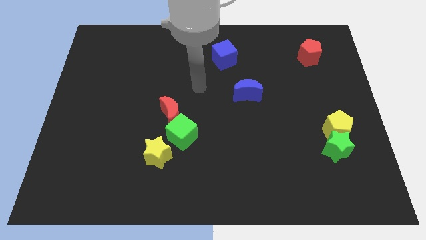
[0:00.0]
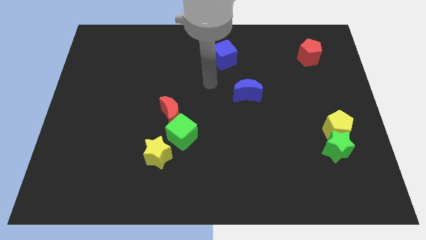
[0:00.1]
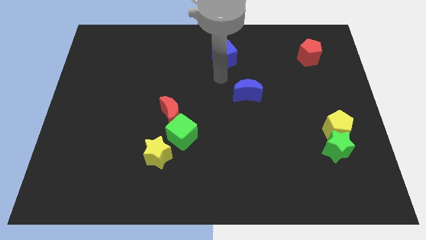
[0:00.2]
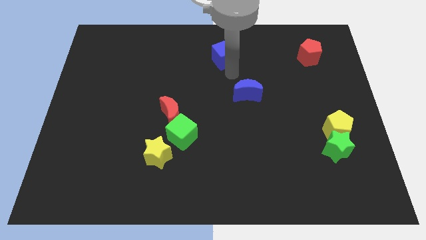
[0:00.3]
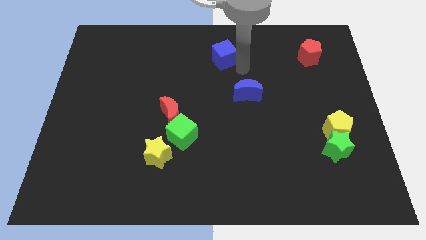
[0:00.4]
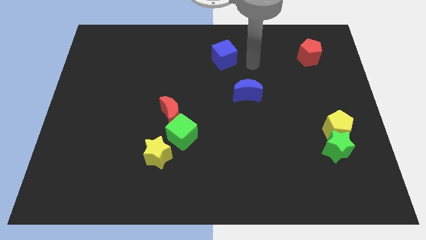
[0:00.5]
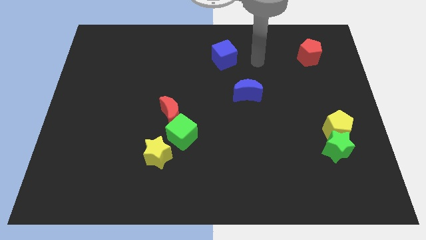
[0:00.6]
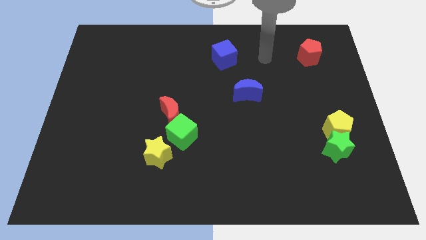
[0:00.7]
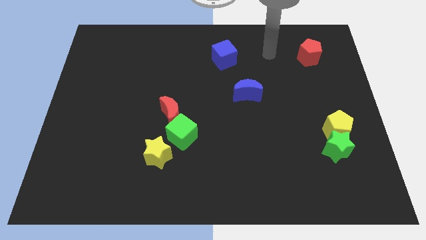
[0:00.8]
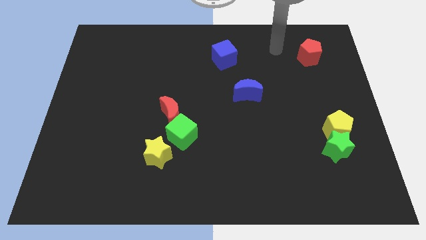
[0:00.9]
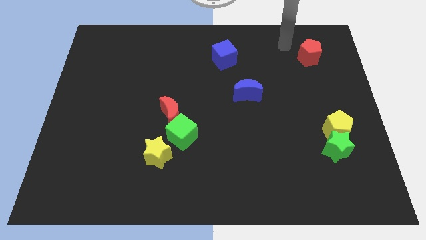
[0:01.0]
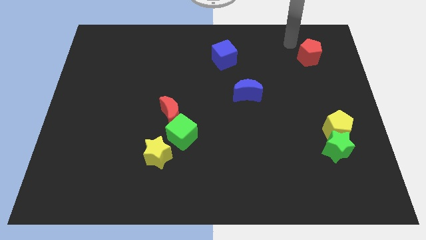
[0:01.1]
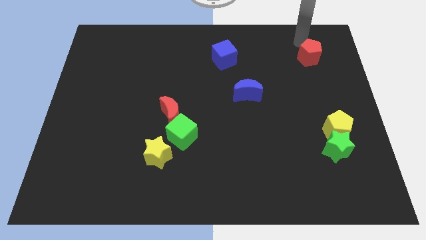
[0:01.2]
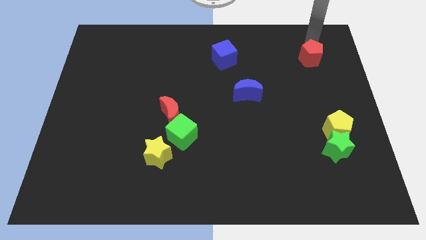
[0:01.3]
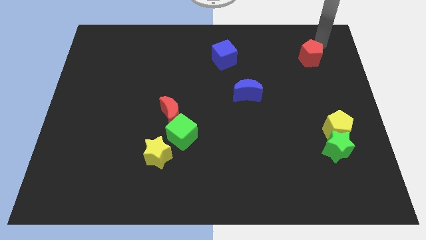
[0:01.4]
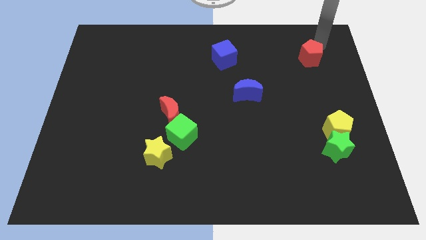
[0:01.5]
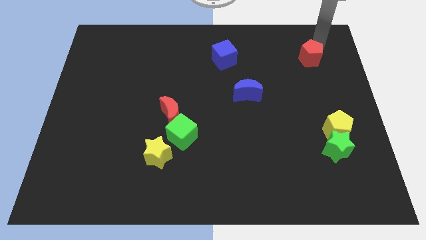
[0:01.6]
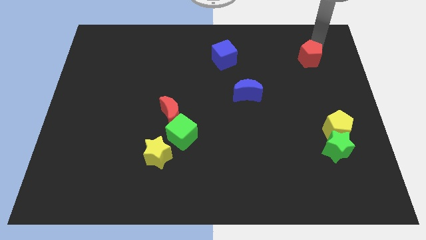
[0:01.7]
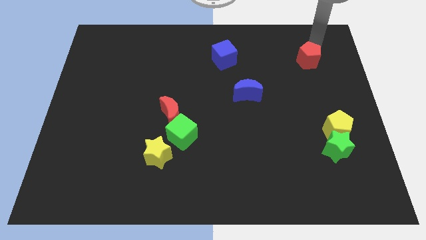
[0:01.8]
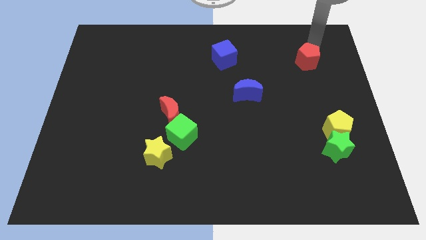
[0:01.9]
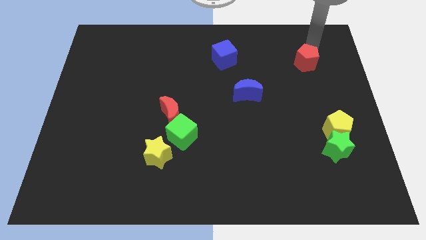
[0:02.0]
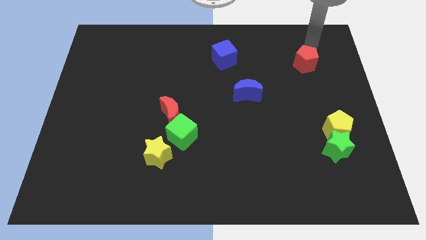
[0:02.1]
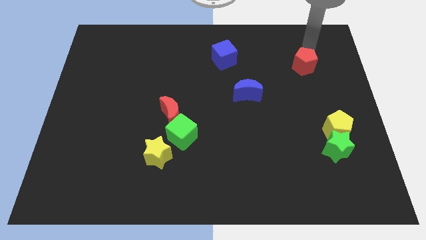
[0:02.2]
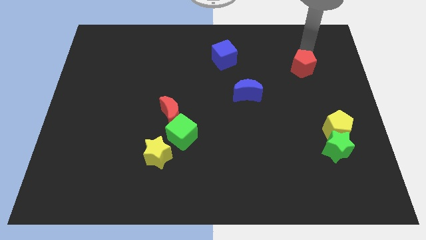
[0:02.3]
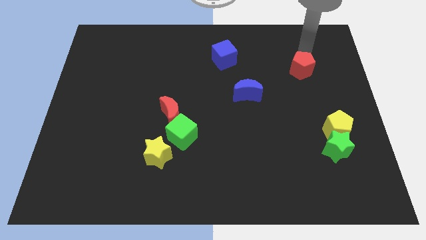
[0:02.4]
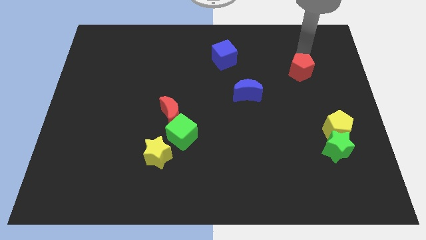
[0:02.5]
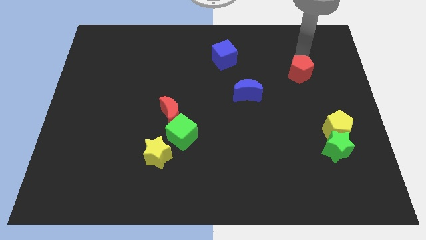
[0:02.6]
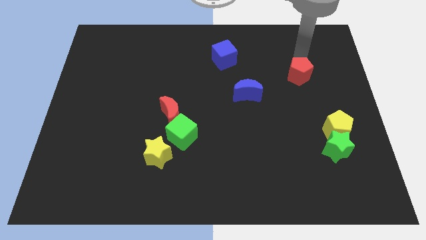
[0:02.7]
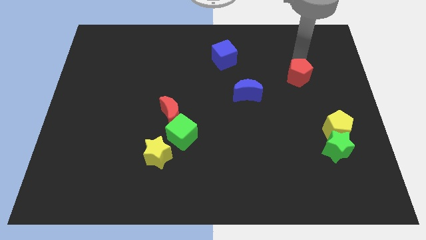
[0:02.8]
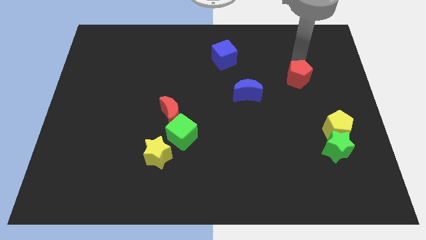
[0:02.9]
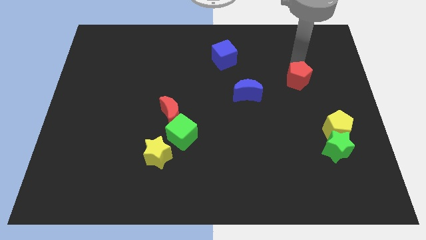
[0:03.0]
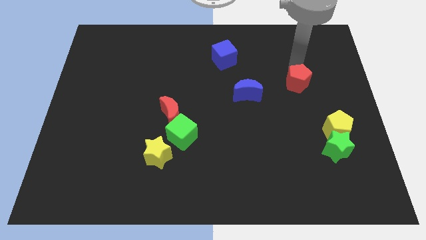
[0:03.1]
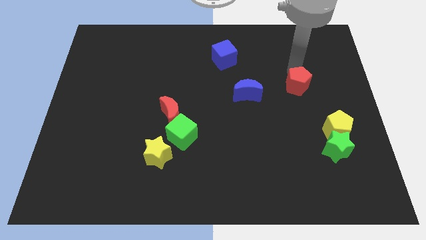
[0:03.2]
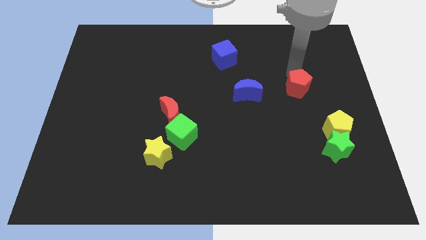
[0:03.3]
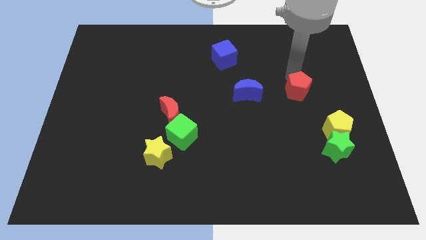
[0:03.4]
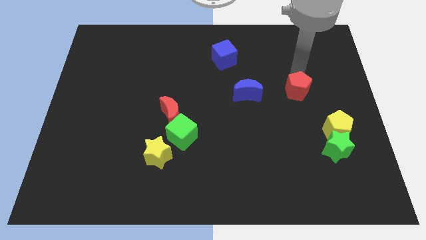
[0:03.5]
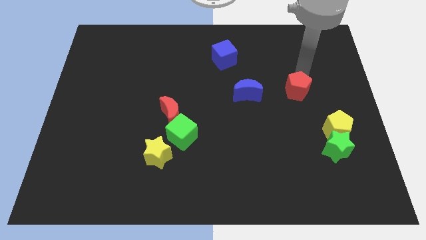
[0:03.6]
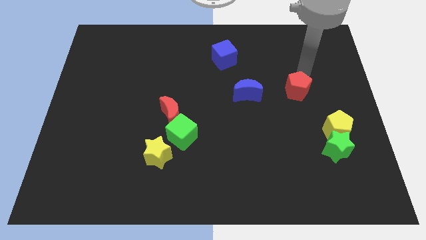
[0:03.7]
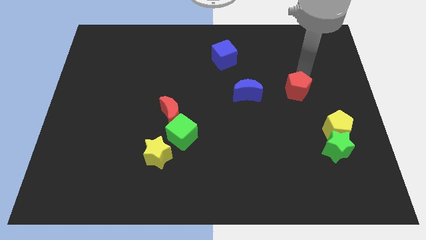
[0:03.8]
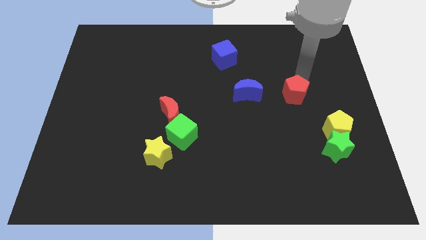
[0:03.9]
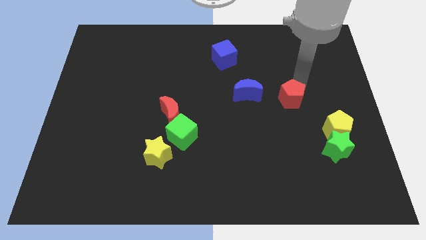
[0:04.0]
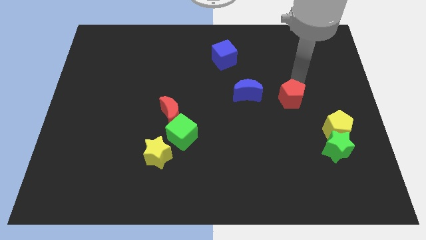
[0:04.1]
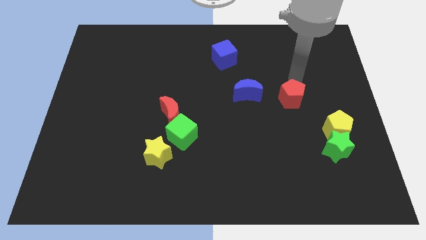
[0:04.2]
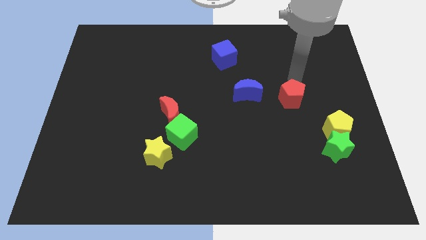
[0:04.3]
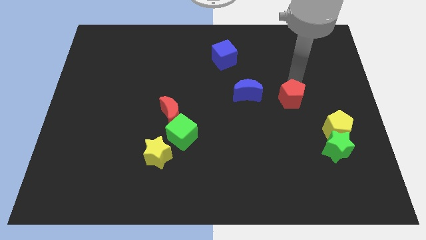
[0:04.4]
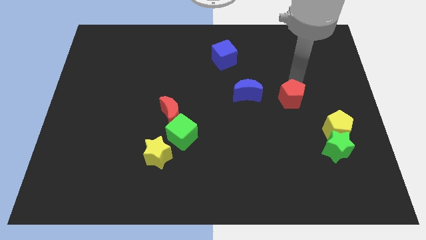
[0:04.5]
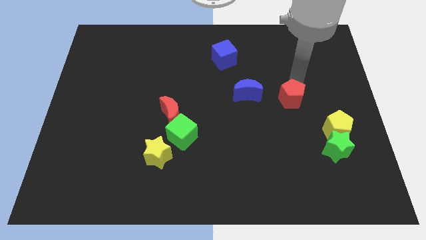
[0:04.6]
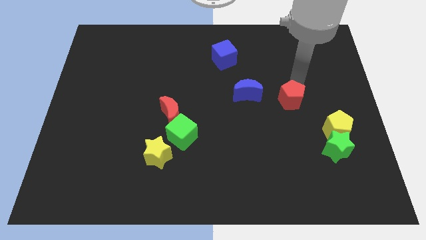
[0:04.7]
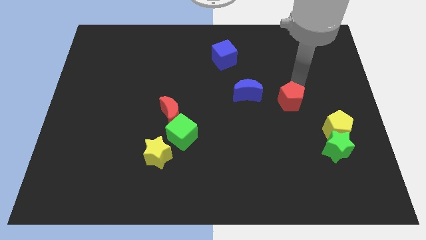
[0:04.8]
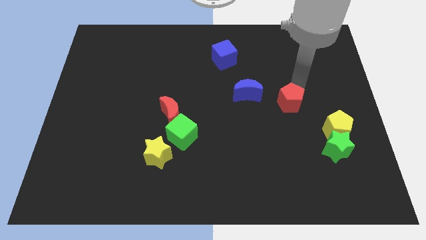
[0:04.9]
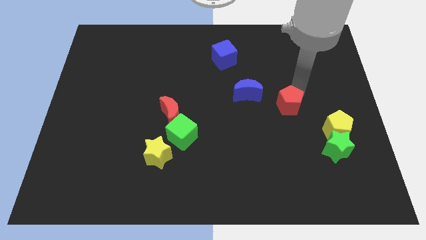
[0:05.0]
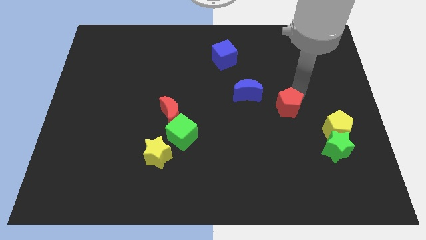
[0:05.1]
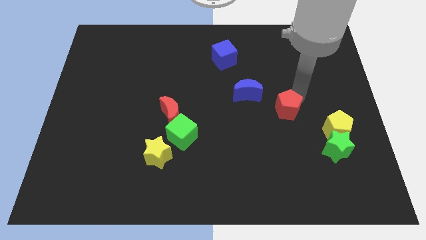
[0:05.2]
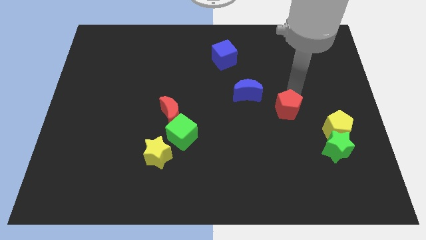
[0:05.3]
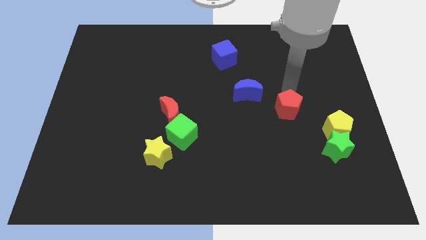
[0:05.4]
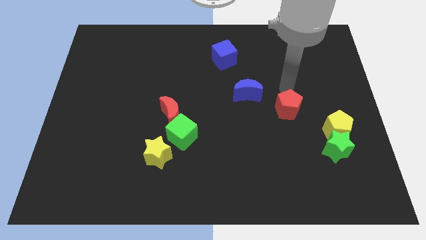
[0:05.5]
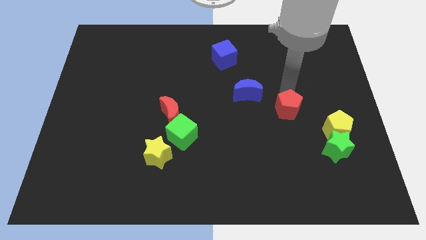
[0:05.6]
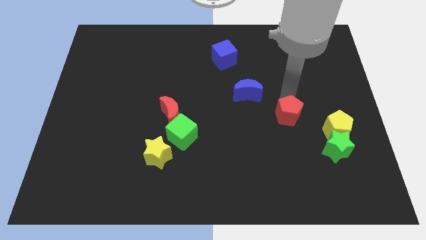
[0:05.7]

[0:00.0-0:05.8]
slide the red pentagon to the left of the yellow pentagon

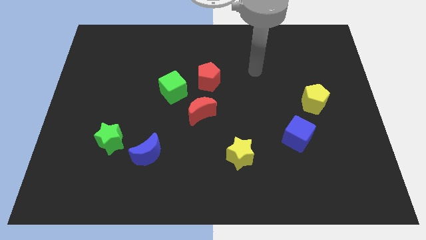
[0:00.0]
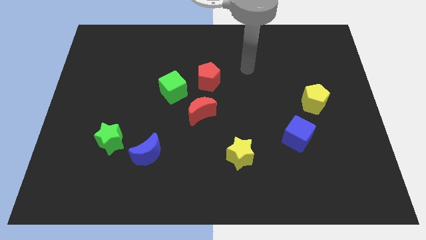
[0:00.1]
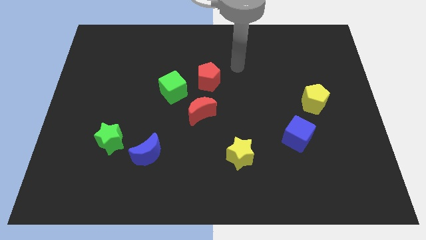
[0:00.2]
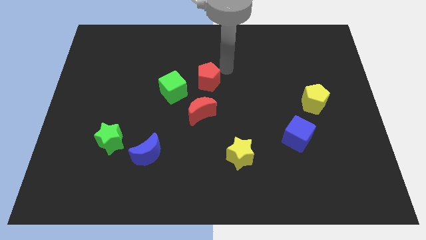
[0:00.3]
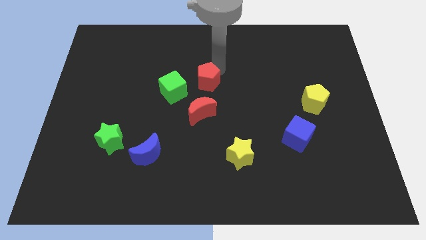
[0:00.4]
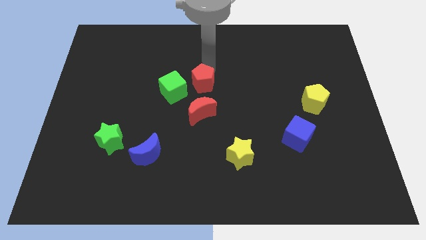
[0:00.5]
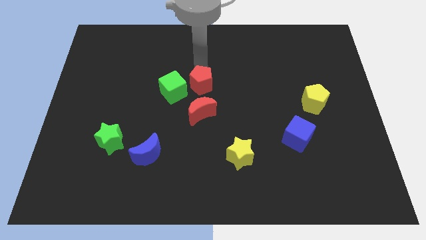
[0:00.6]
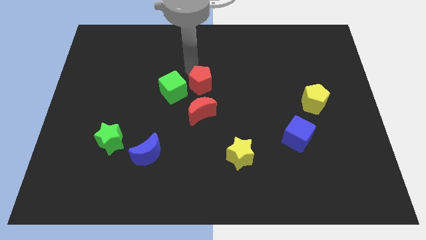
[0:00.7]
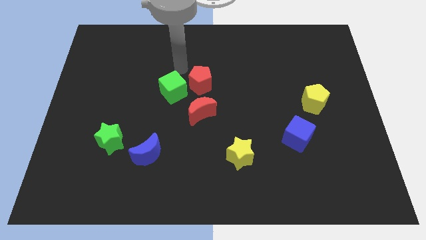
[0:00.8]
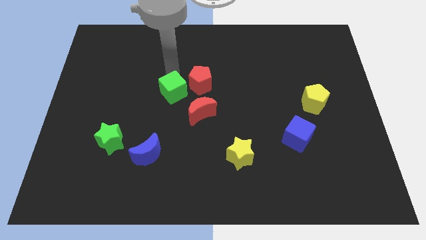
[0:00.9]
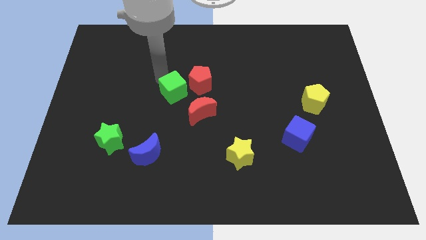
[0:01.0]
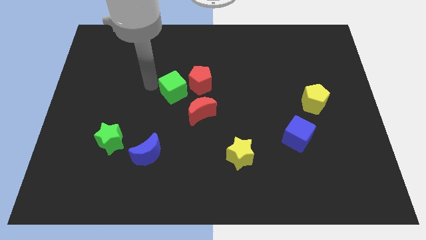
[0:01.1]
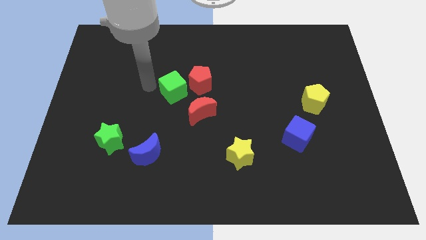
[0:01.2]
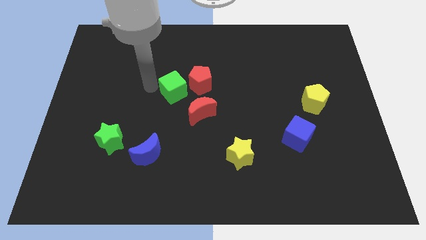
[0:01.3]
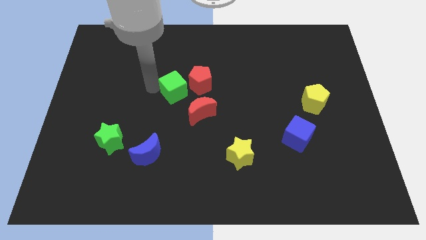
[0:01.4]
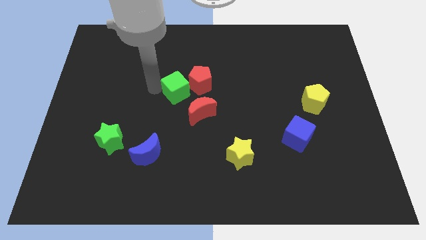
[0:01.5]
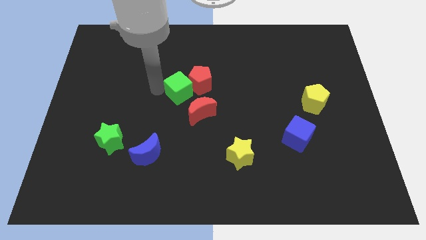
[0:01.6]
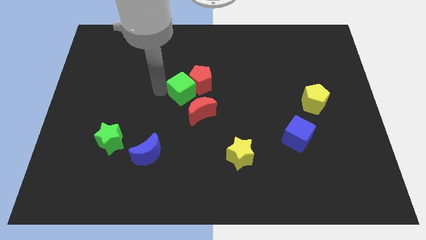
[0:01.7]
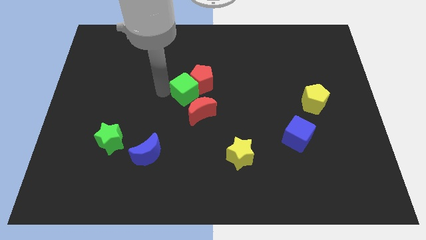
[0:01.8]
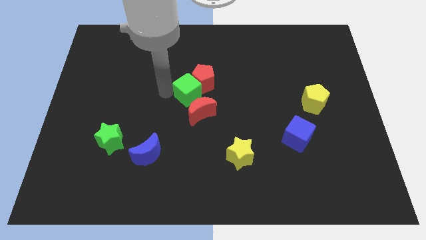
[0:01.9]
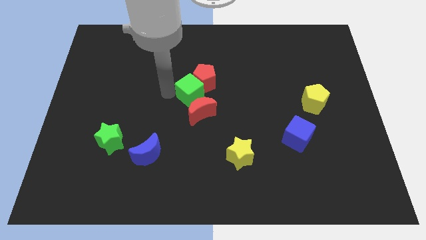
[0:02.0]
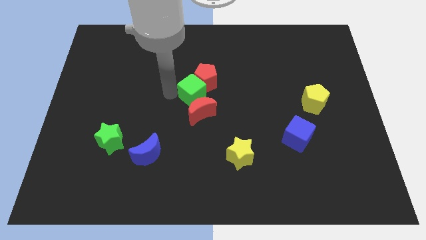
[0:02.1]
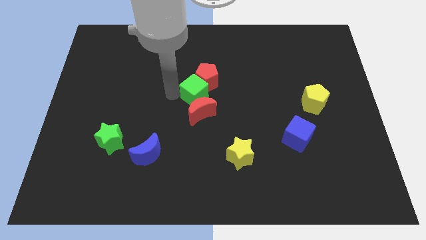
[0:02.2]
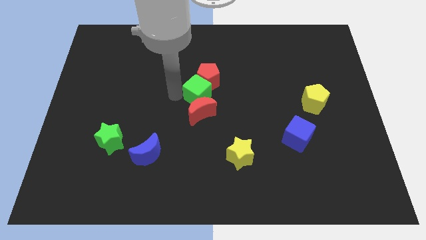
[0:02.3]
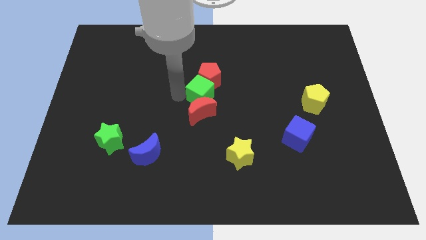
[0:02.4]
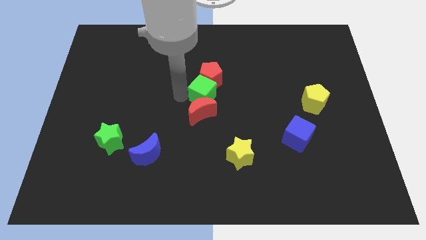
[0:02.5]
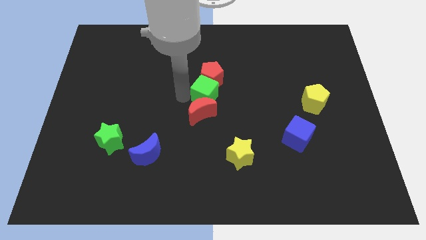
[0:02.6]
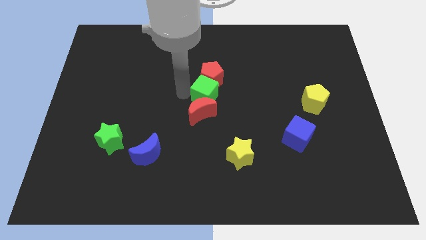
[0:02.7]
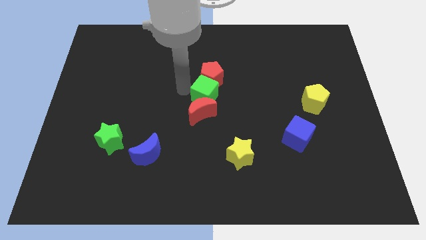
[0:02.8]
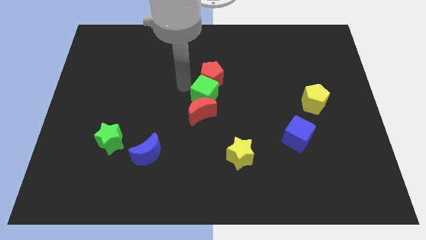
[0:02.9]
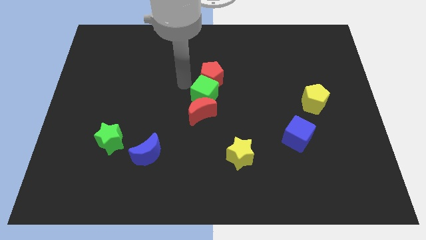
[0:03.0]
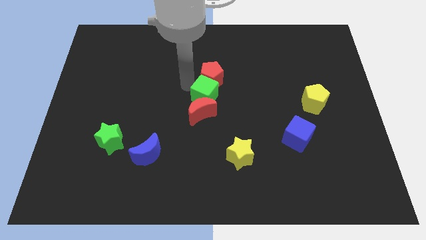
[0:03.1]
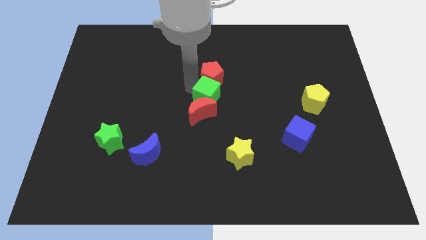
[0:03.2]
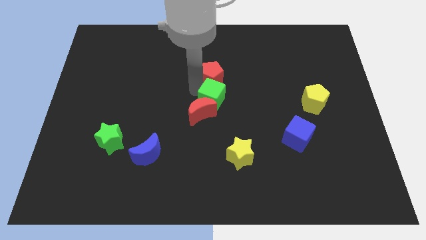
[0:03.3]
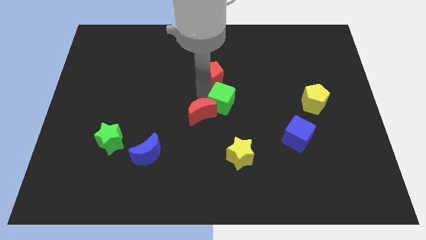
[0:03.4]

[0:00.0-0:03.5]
push the green cube to the right of the red moon
